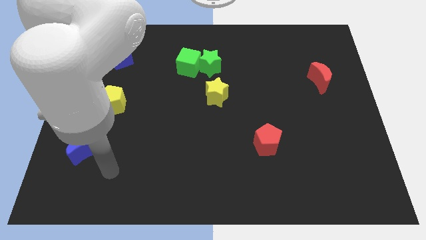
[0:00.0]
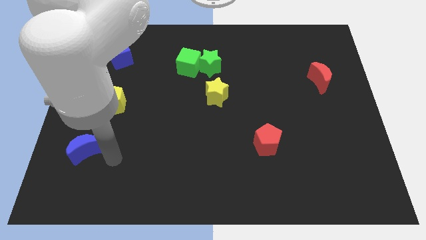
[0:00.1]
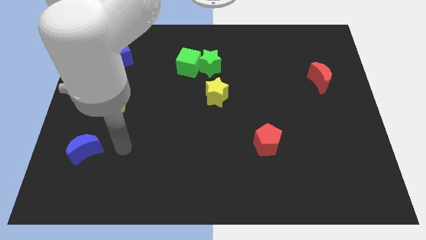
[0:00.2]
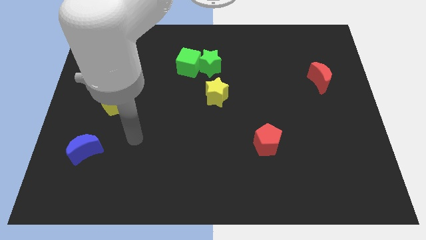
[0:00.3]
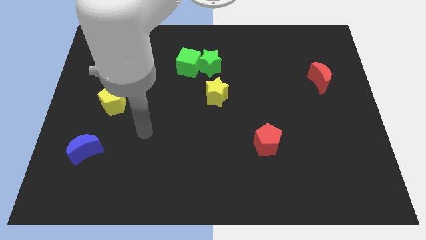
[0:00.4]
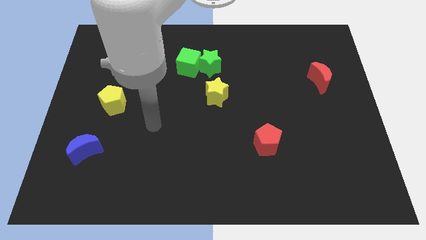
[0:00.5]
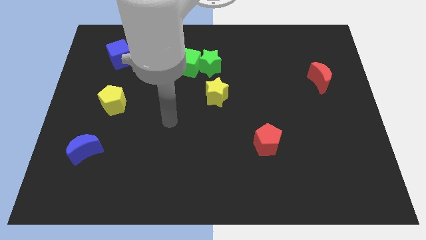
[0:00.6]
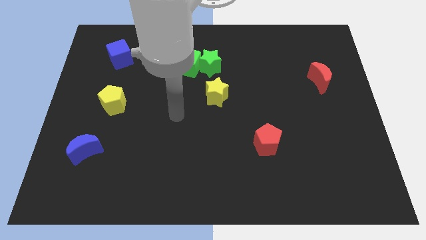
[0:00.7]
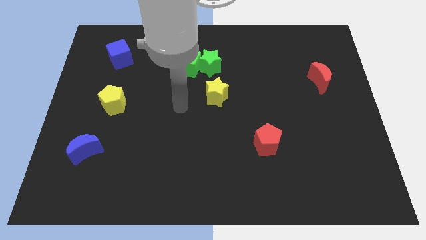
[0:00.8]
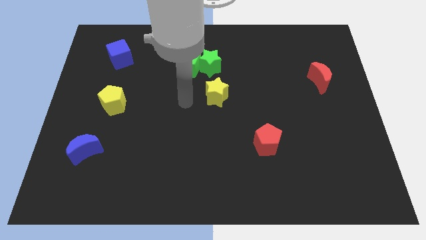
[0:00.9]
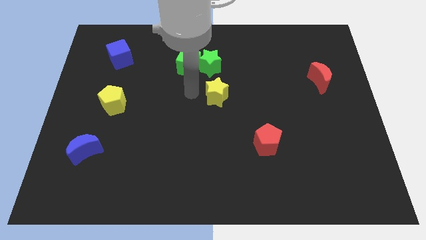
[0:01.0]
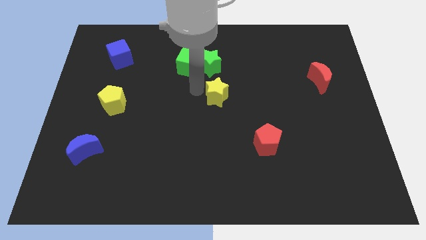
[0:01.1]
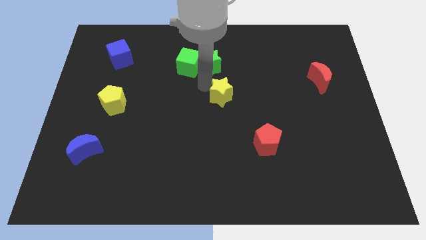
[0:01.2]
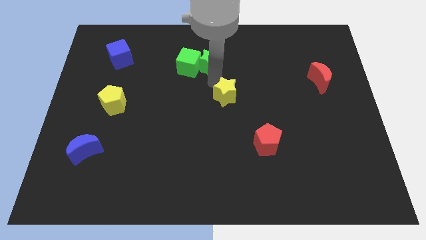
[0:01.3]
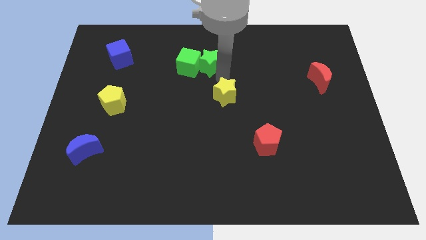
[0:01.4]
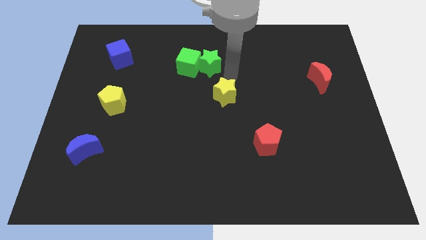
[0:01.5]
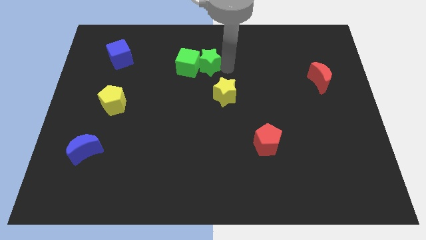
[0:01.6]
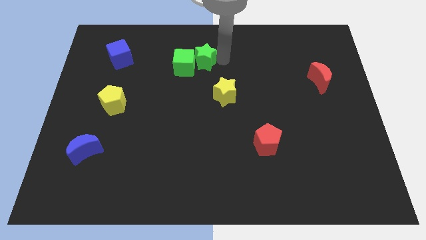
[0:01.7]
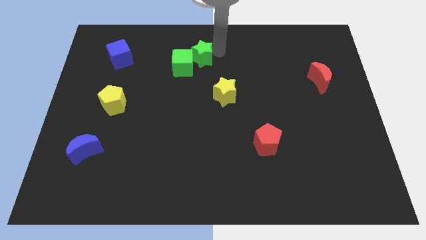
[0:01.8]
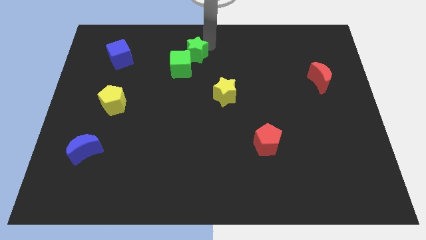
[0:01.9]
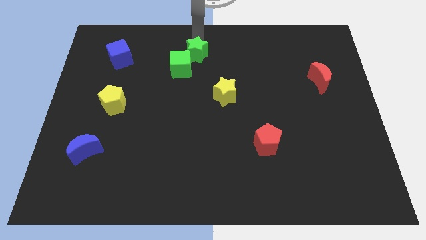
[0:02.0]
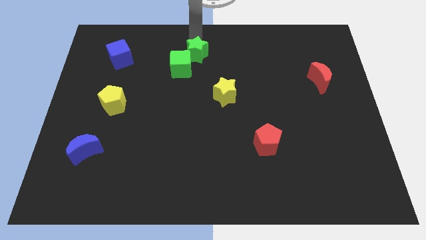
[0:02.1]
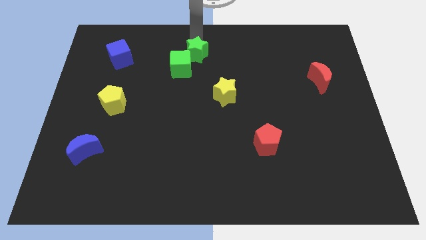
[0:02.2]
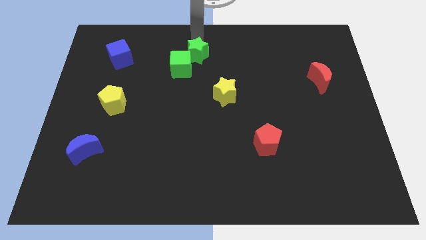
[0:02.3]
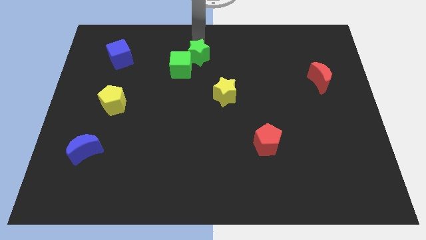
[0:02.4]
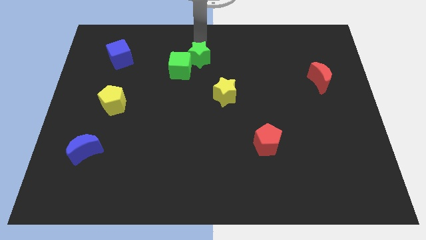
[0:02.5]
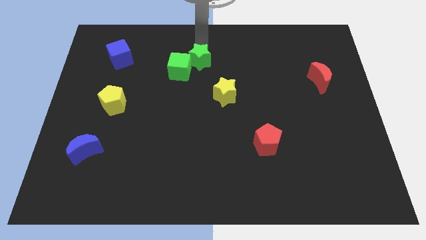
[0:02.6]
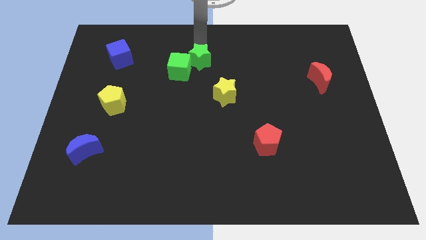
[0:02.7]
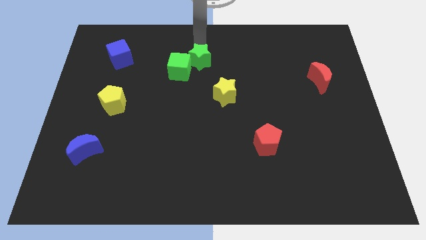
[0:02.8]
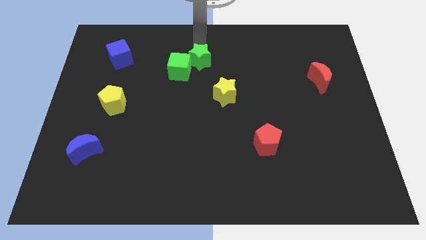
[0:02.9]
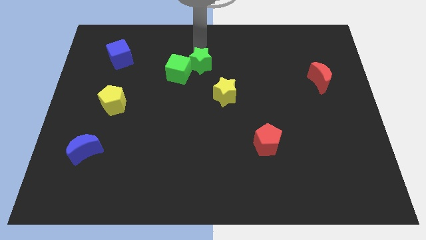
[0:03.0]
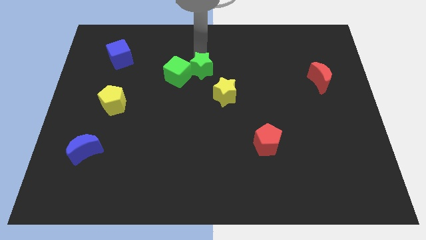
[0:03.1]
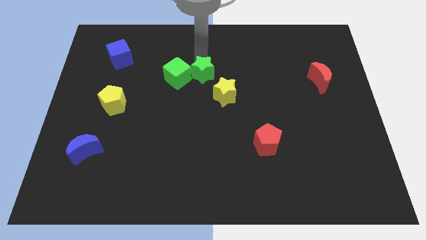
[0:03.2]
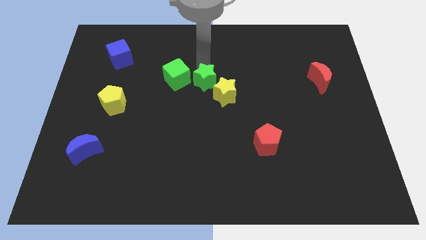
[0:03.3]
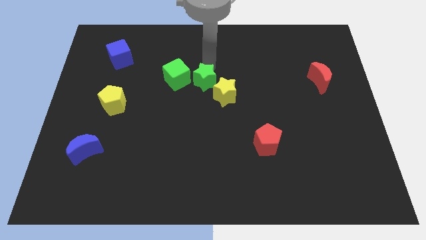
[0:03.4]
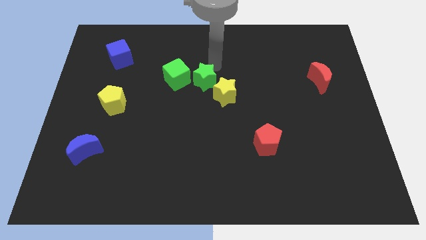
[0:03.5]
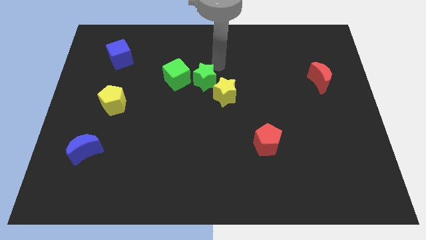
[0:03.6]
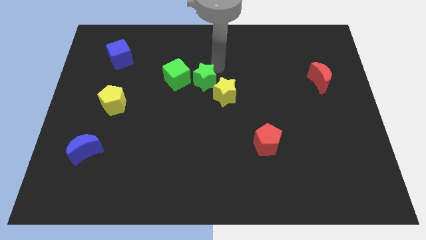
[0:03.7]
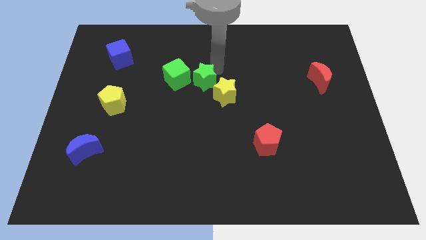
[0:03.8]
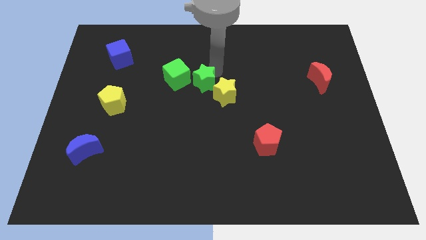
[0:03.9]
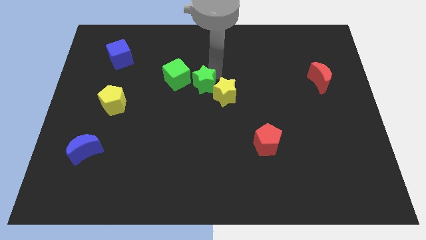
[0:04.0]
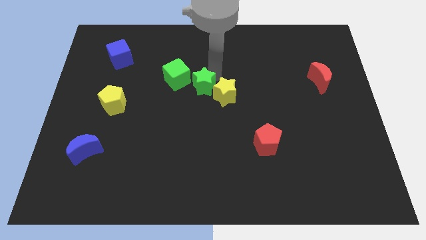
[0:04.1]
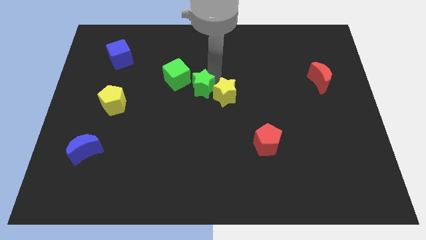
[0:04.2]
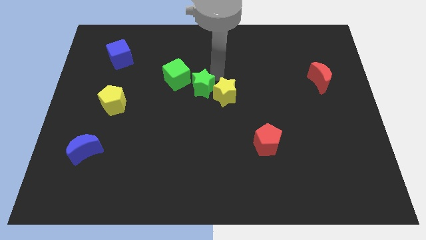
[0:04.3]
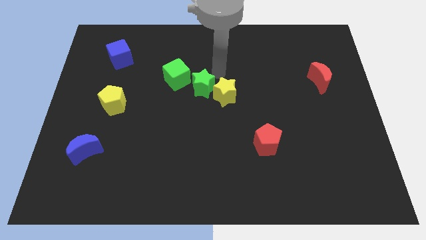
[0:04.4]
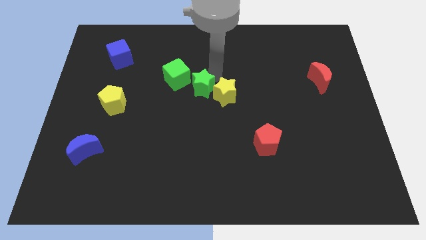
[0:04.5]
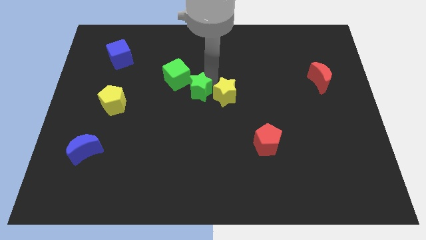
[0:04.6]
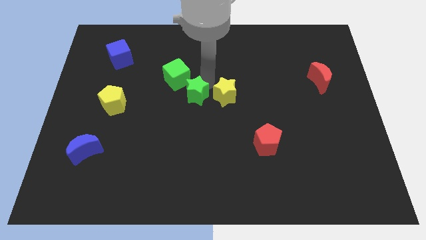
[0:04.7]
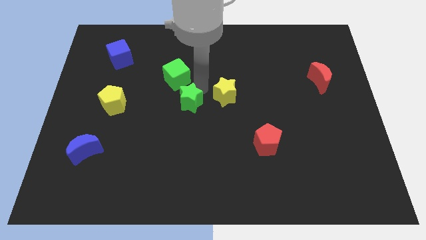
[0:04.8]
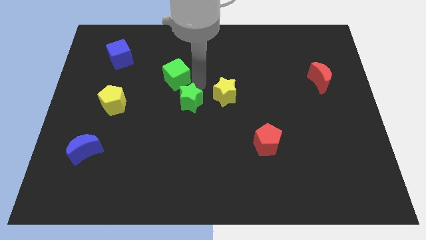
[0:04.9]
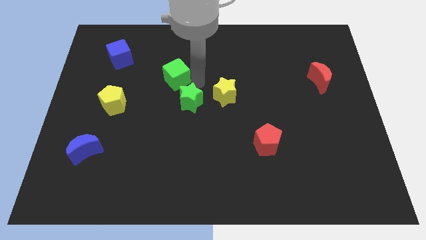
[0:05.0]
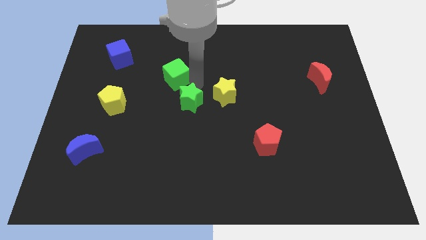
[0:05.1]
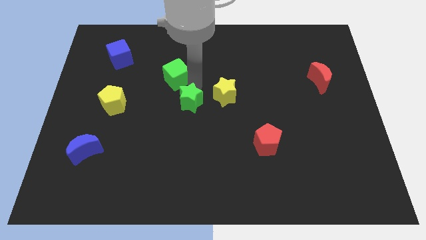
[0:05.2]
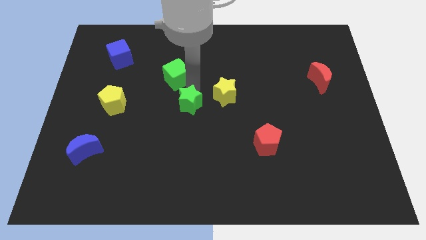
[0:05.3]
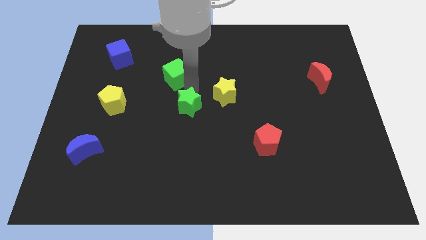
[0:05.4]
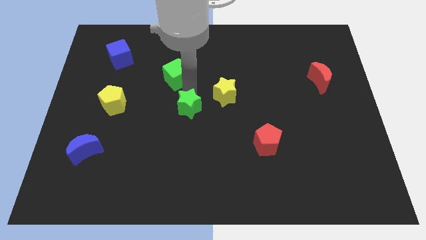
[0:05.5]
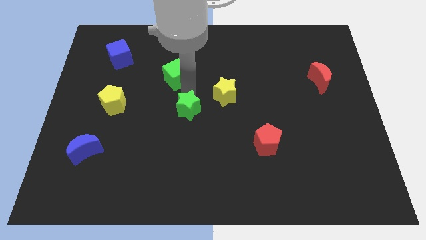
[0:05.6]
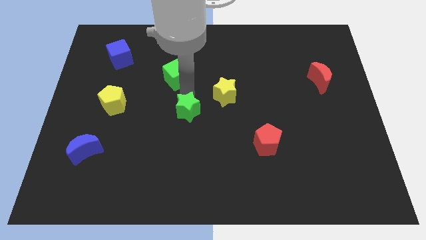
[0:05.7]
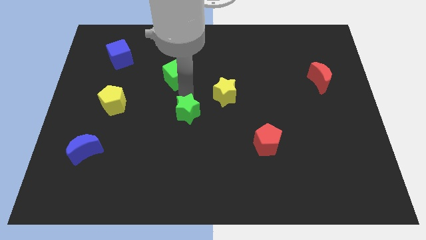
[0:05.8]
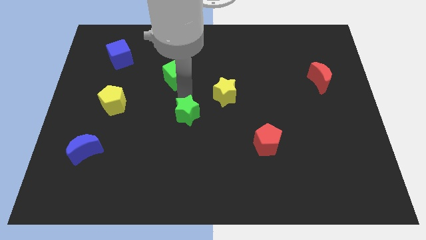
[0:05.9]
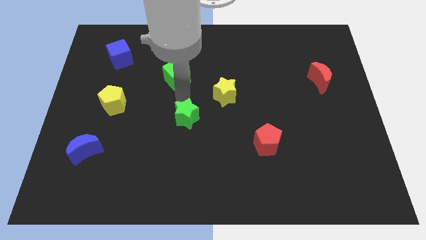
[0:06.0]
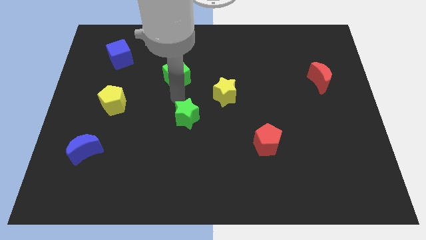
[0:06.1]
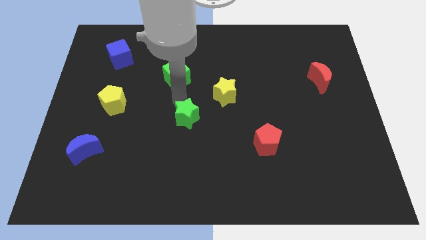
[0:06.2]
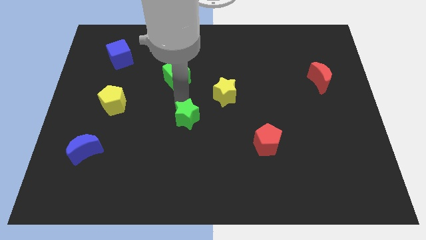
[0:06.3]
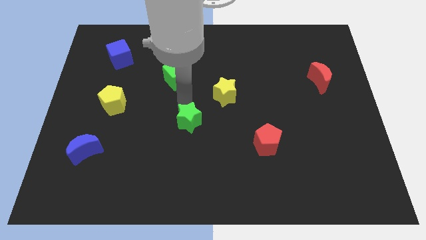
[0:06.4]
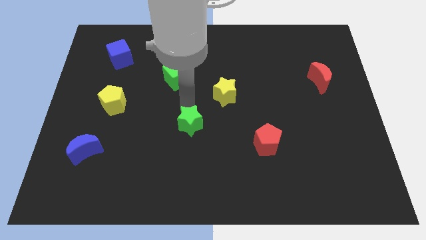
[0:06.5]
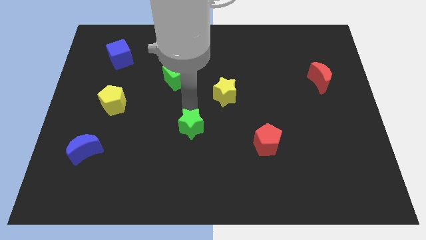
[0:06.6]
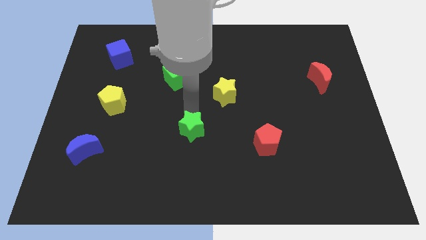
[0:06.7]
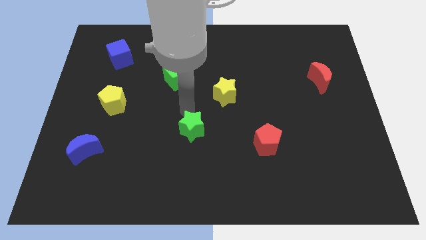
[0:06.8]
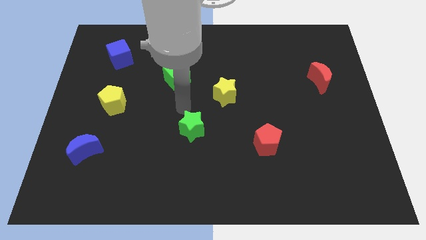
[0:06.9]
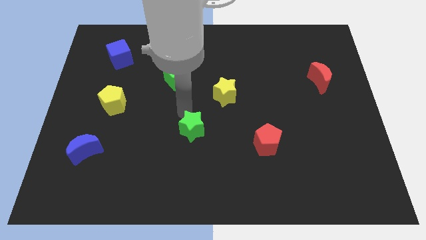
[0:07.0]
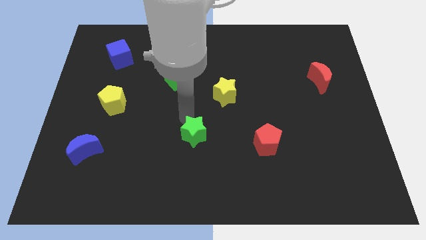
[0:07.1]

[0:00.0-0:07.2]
move the green star down

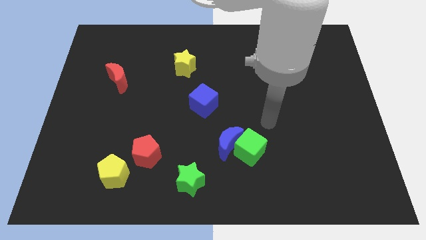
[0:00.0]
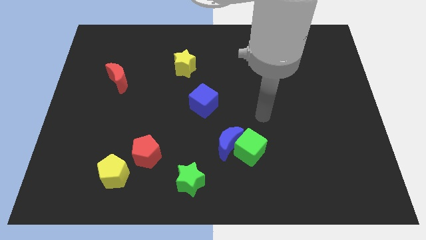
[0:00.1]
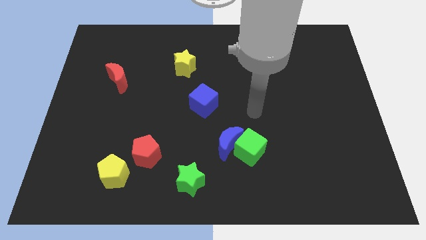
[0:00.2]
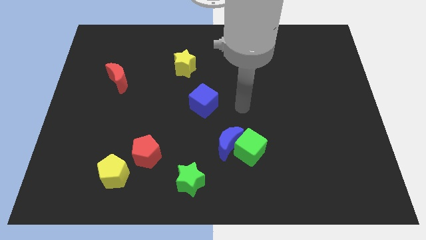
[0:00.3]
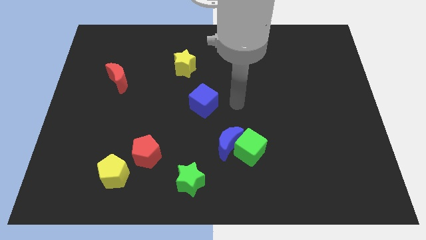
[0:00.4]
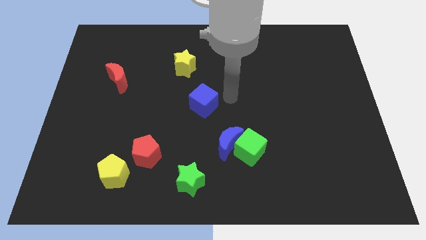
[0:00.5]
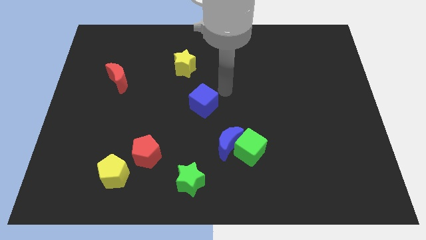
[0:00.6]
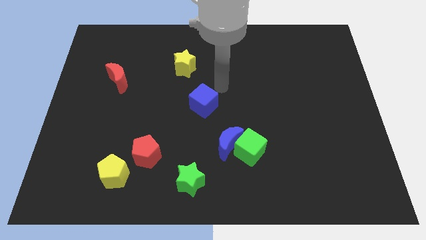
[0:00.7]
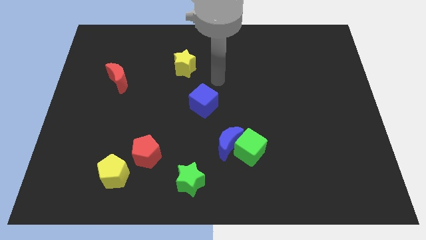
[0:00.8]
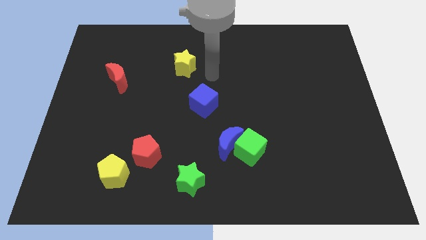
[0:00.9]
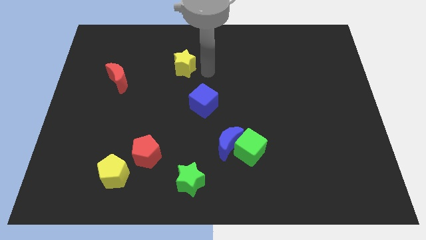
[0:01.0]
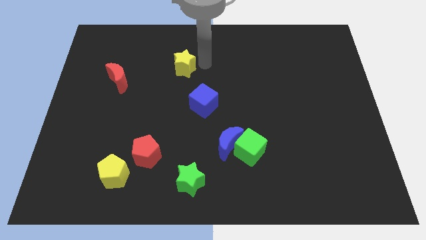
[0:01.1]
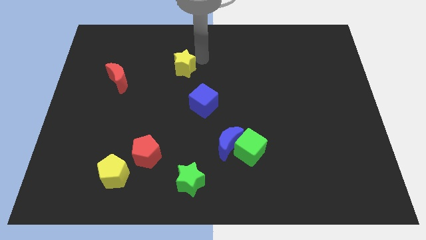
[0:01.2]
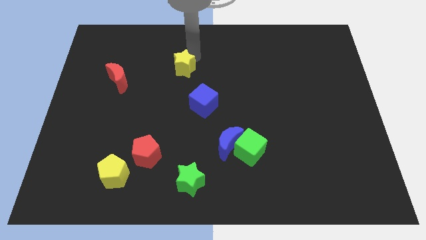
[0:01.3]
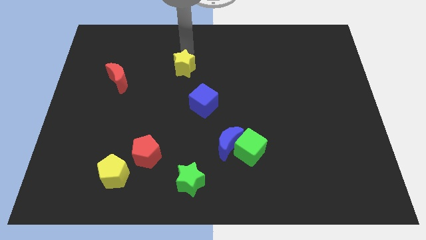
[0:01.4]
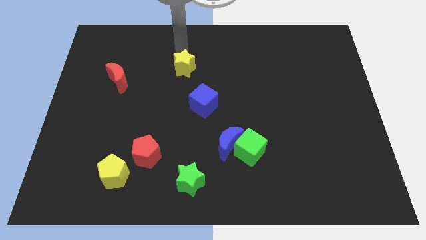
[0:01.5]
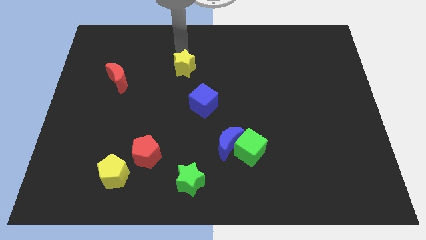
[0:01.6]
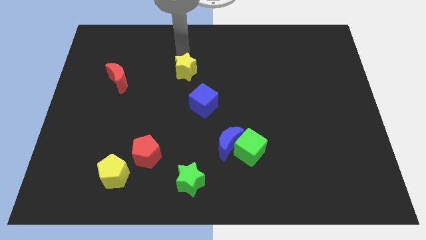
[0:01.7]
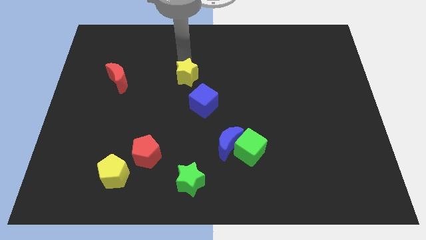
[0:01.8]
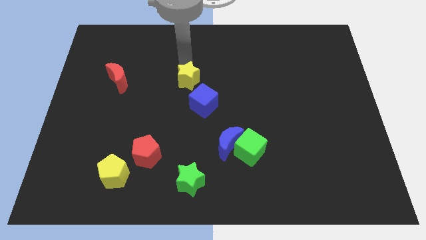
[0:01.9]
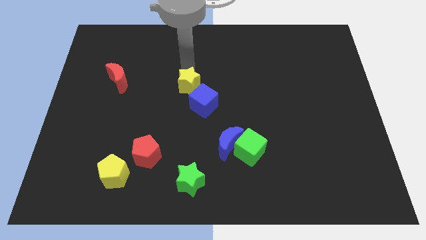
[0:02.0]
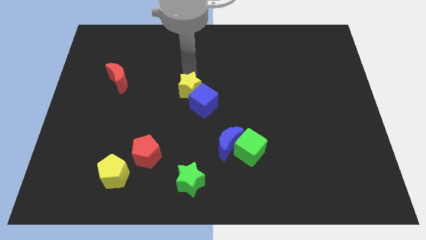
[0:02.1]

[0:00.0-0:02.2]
slightly move the yellow star down
